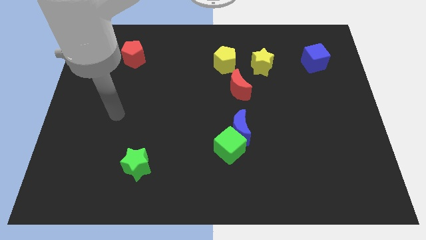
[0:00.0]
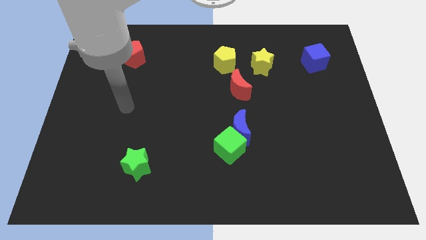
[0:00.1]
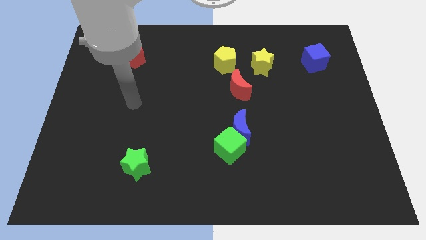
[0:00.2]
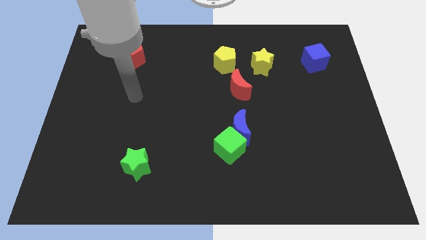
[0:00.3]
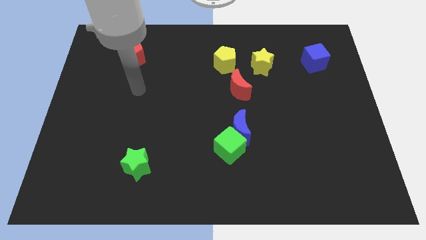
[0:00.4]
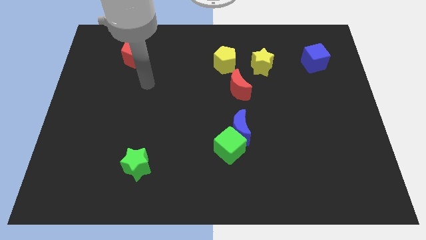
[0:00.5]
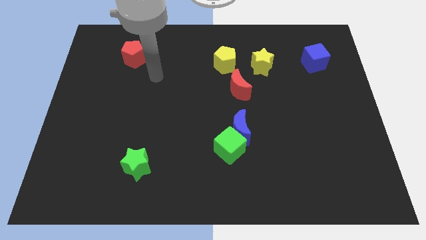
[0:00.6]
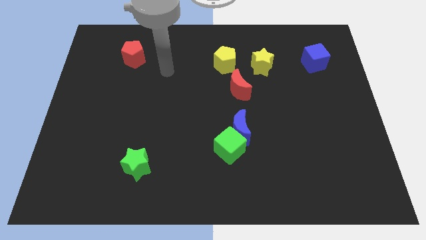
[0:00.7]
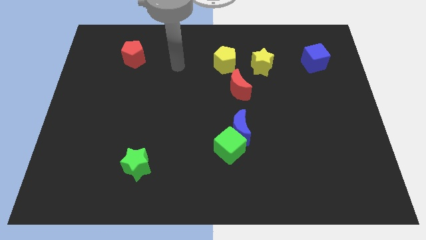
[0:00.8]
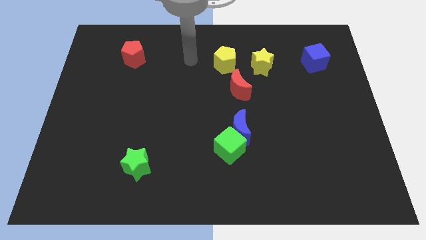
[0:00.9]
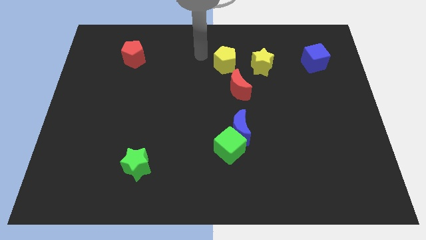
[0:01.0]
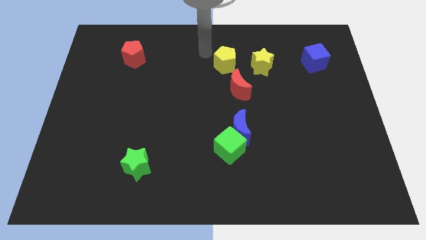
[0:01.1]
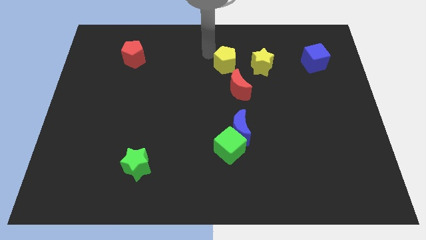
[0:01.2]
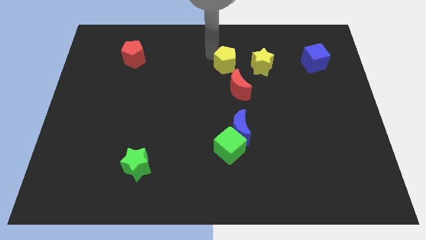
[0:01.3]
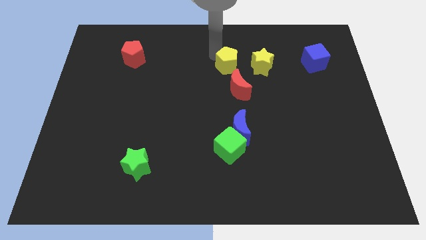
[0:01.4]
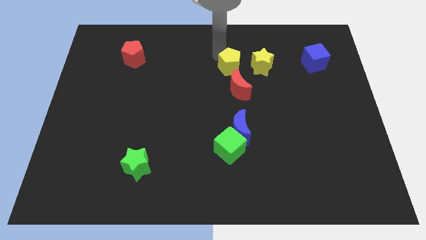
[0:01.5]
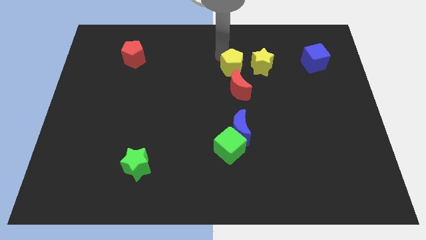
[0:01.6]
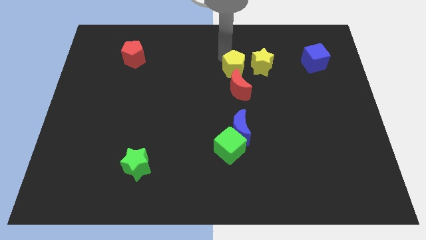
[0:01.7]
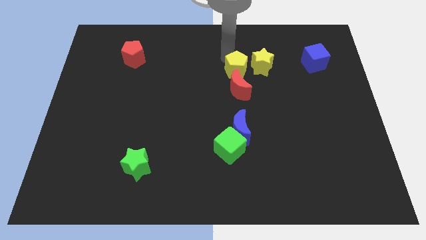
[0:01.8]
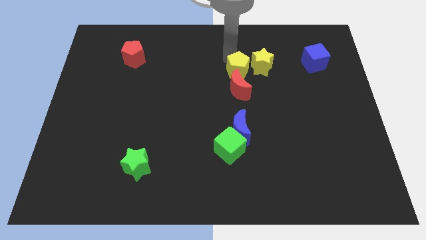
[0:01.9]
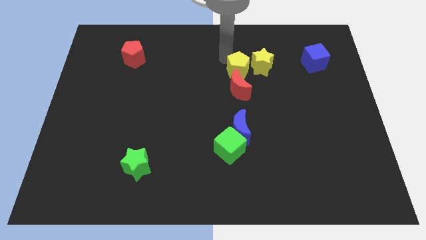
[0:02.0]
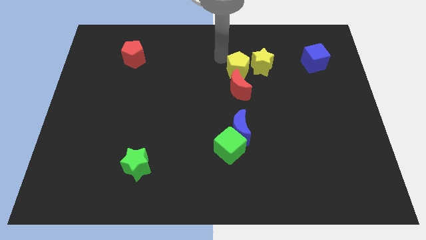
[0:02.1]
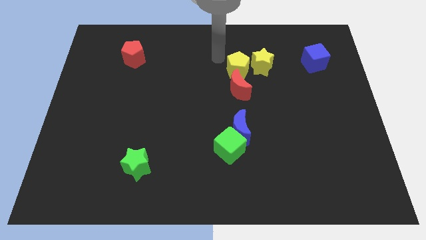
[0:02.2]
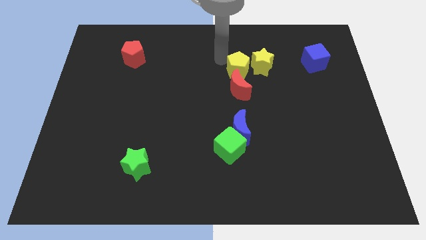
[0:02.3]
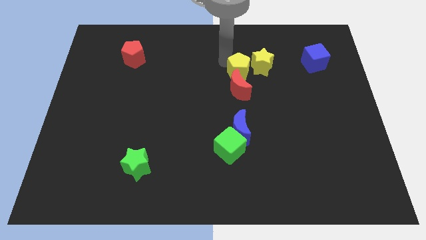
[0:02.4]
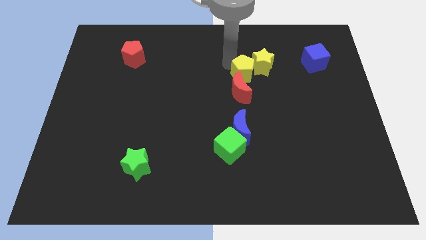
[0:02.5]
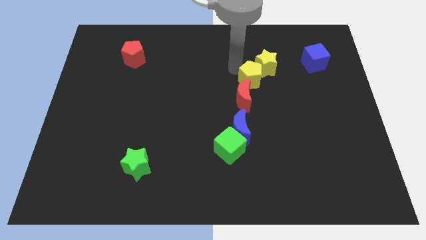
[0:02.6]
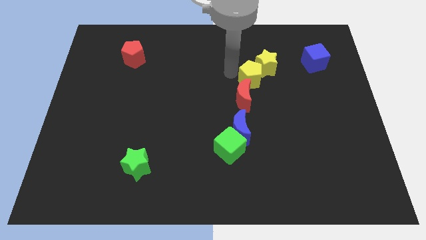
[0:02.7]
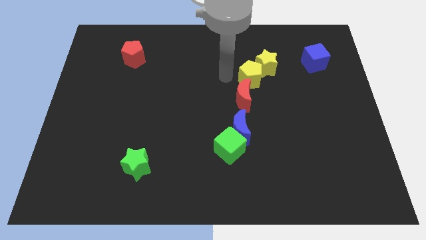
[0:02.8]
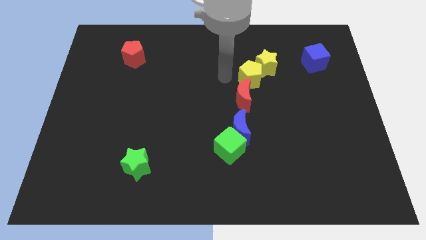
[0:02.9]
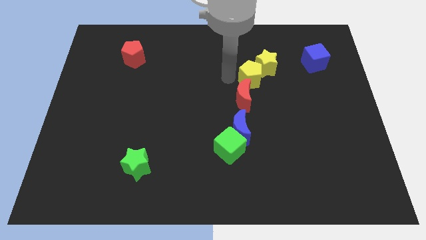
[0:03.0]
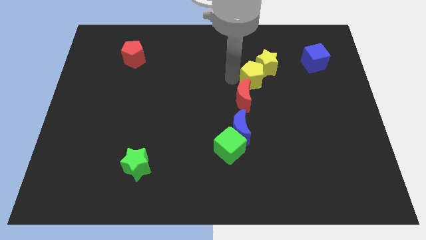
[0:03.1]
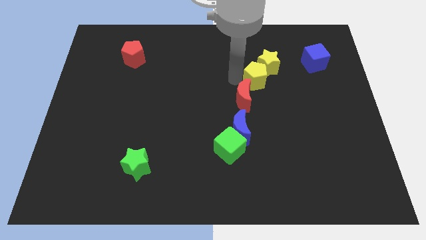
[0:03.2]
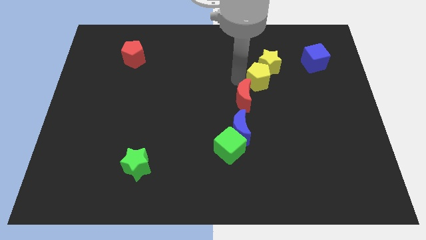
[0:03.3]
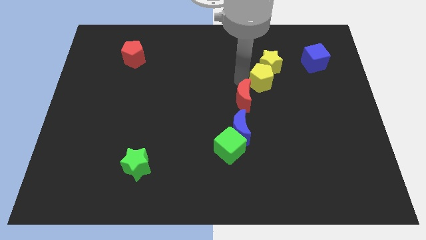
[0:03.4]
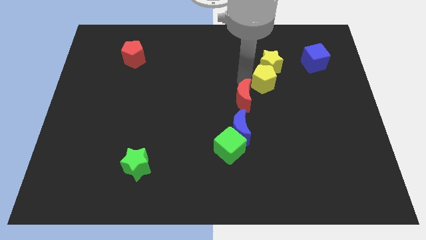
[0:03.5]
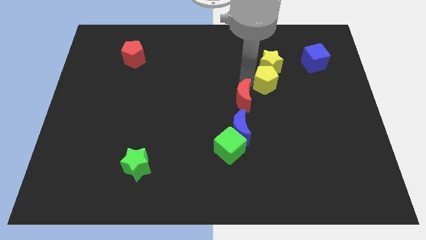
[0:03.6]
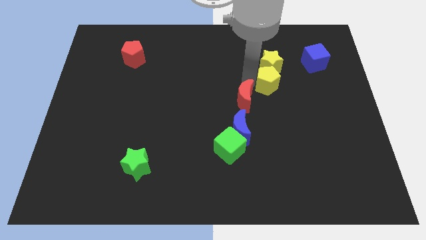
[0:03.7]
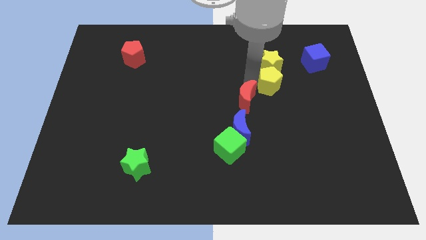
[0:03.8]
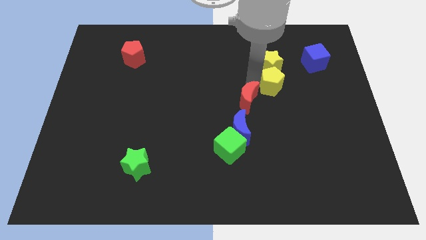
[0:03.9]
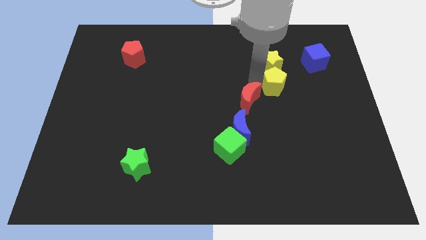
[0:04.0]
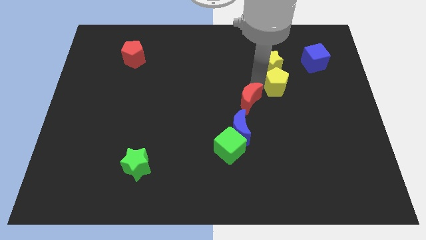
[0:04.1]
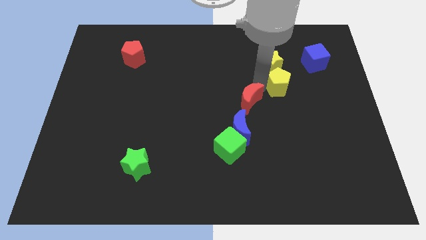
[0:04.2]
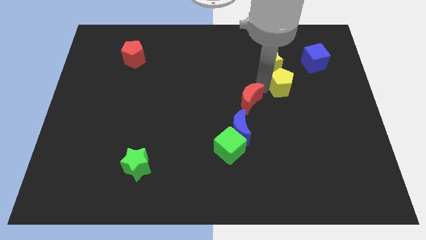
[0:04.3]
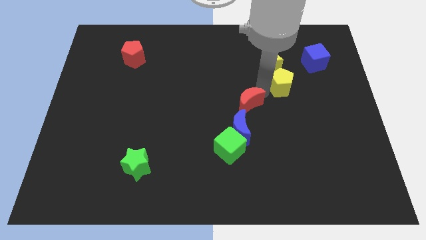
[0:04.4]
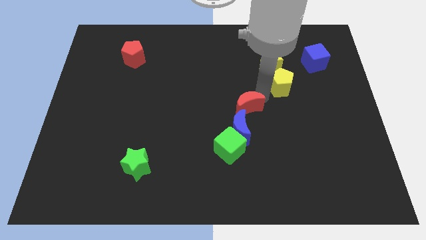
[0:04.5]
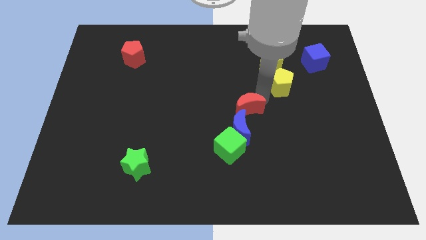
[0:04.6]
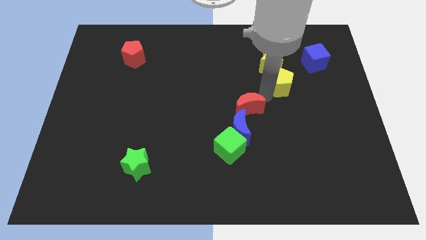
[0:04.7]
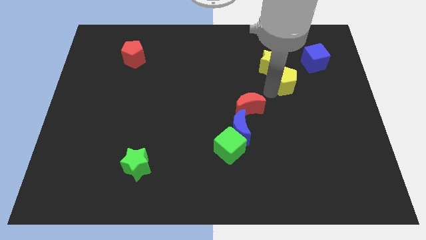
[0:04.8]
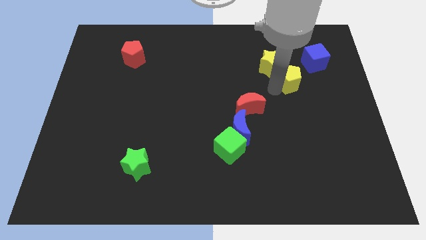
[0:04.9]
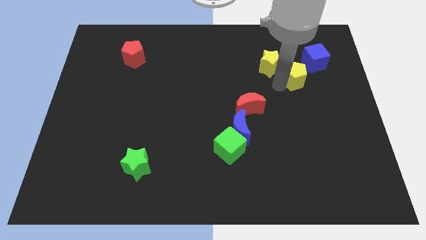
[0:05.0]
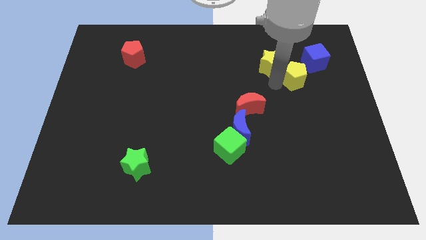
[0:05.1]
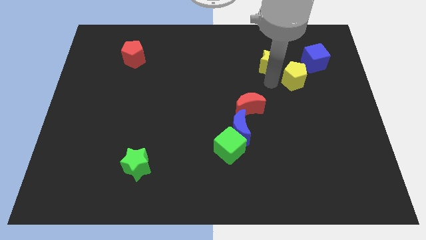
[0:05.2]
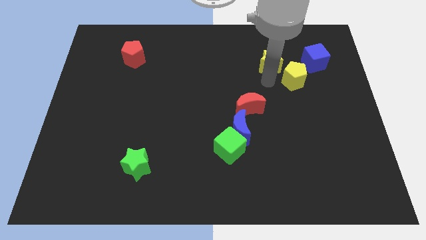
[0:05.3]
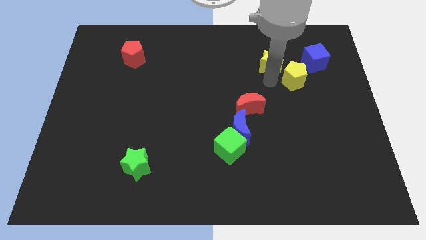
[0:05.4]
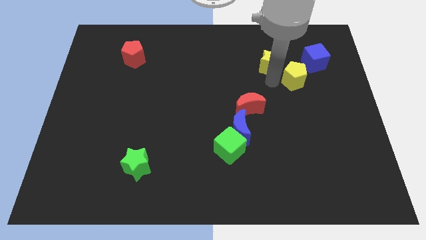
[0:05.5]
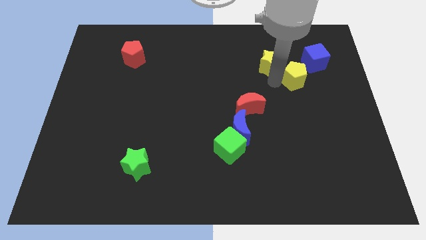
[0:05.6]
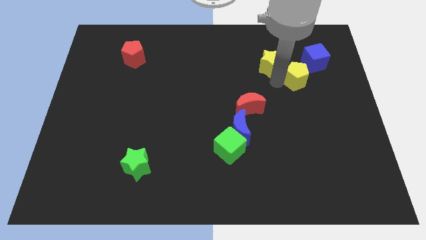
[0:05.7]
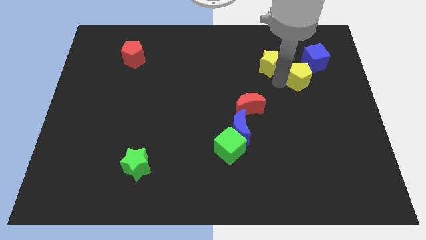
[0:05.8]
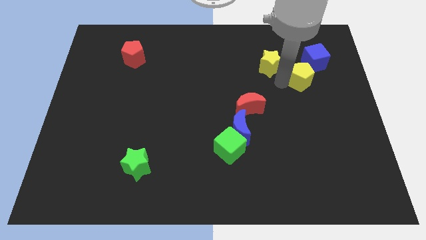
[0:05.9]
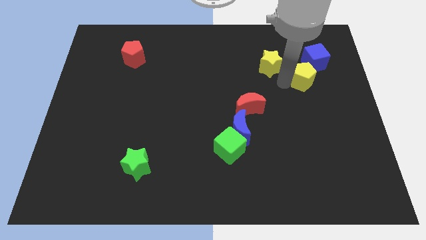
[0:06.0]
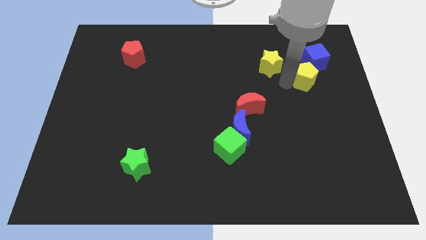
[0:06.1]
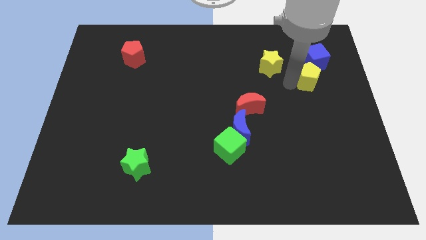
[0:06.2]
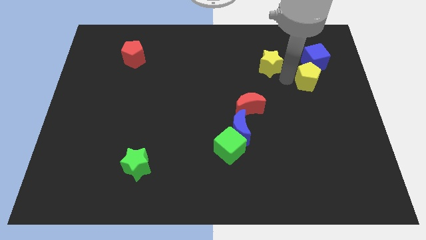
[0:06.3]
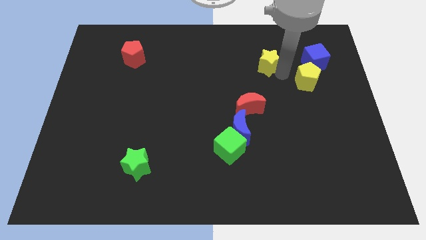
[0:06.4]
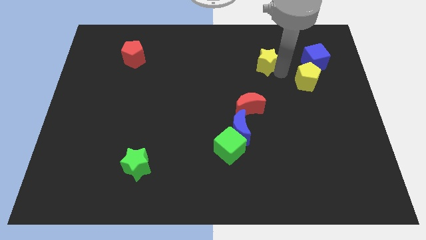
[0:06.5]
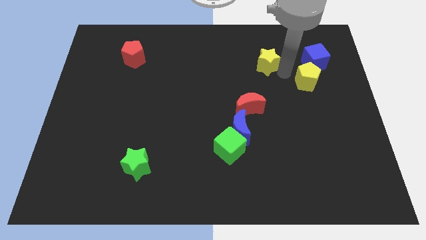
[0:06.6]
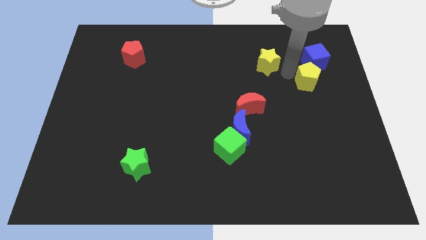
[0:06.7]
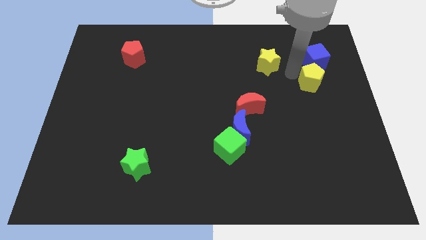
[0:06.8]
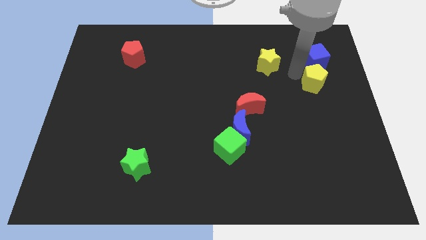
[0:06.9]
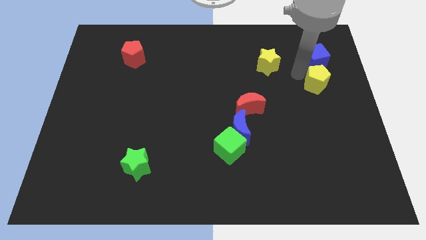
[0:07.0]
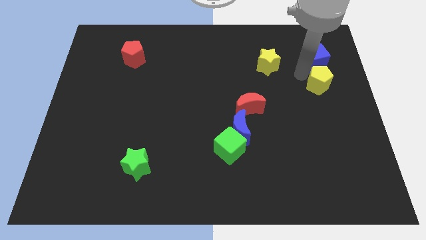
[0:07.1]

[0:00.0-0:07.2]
slide the yellow pentagon to the right side
